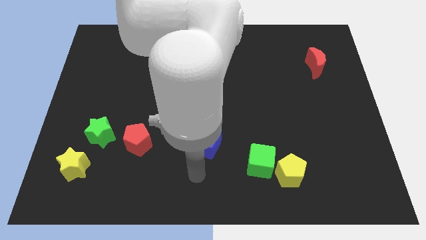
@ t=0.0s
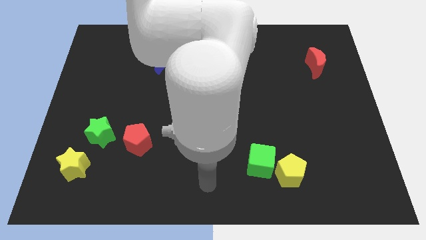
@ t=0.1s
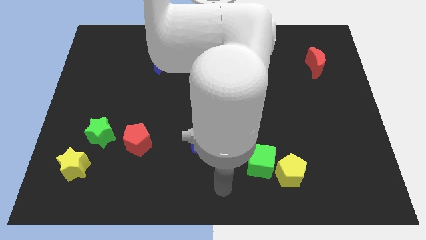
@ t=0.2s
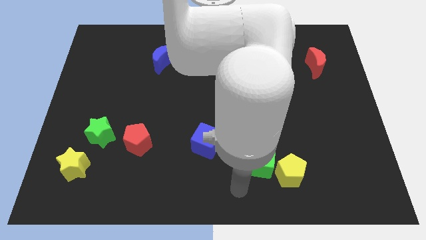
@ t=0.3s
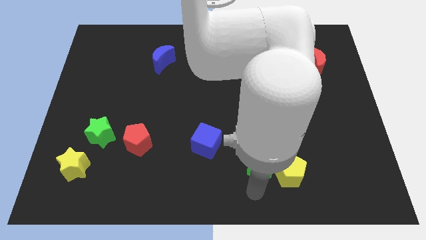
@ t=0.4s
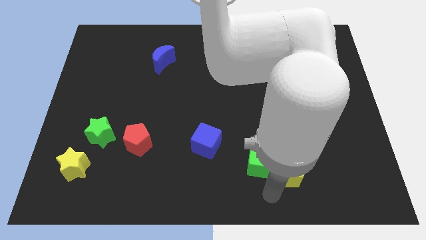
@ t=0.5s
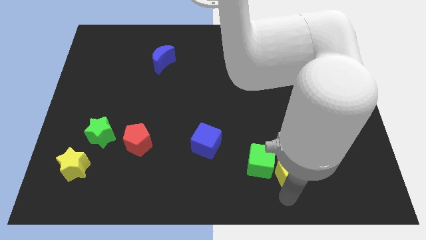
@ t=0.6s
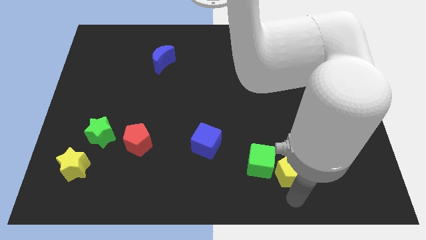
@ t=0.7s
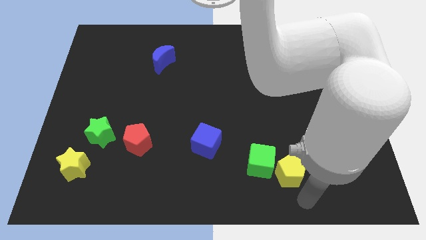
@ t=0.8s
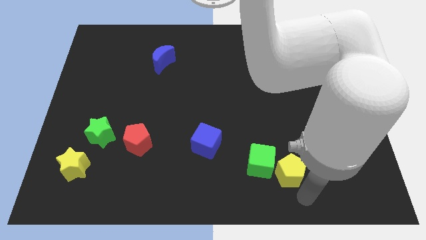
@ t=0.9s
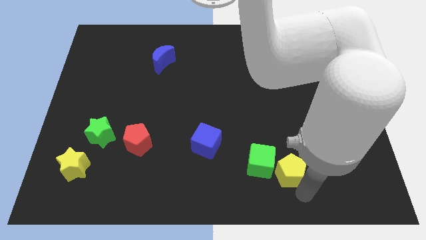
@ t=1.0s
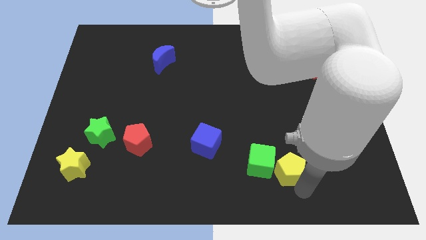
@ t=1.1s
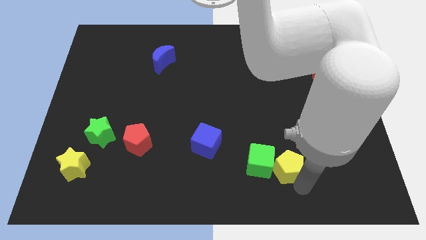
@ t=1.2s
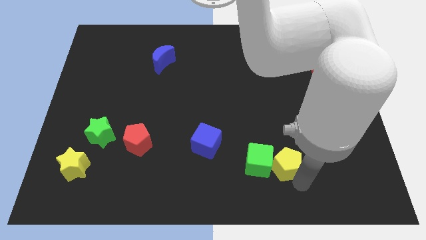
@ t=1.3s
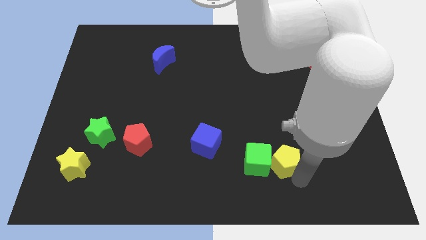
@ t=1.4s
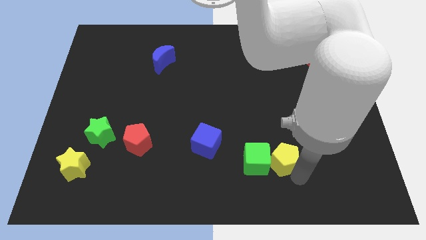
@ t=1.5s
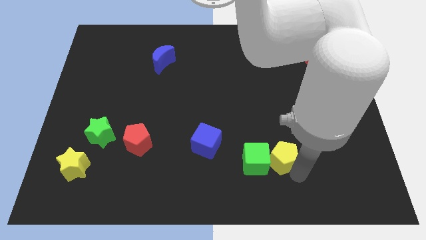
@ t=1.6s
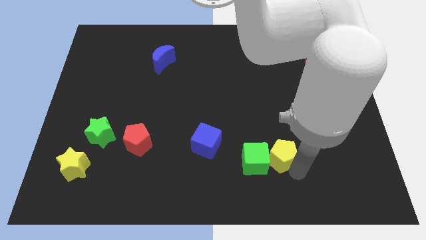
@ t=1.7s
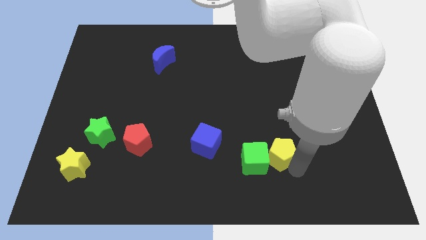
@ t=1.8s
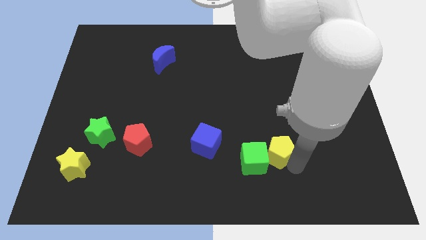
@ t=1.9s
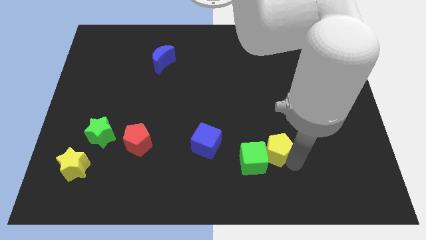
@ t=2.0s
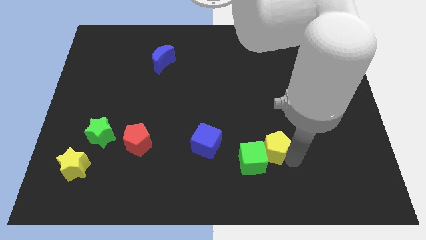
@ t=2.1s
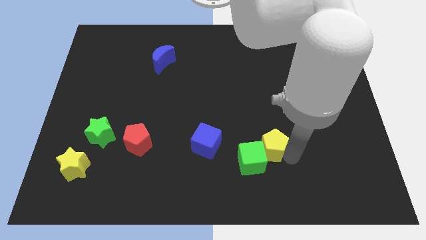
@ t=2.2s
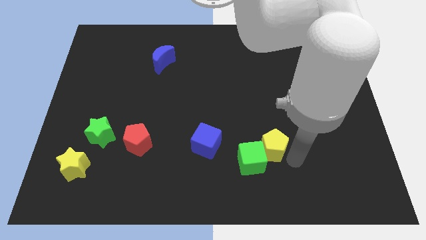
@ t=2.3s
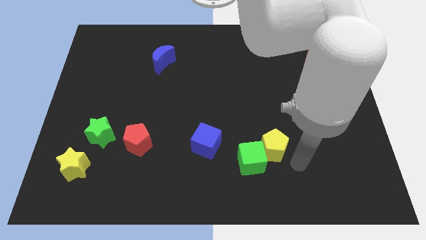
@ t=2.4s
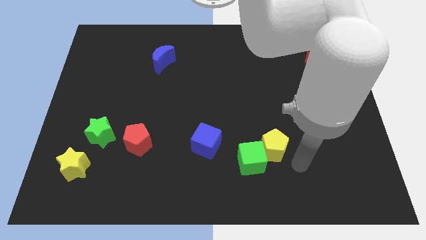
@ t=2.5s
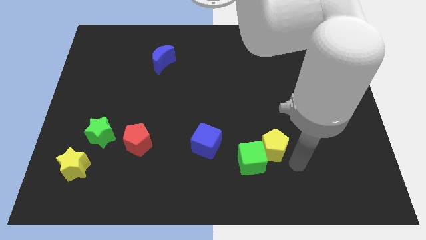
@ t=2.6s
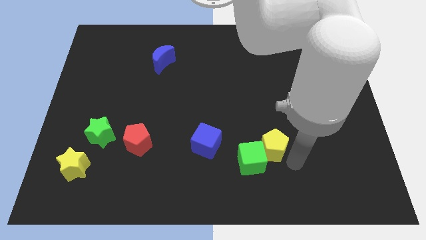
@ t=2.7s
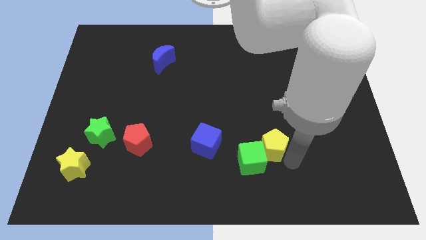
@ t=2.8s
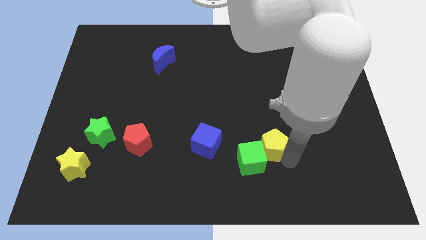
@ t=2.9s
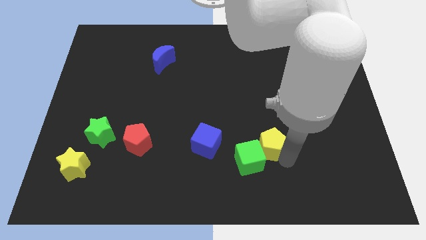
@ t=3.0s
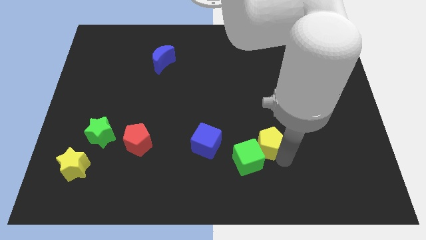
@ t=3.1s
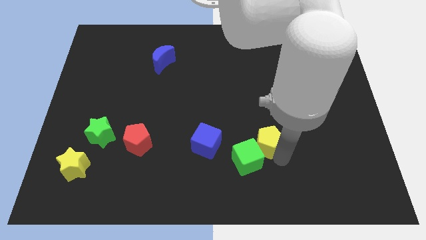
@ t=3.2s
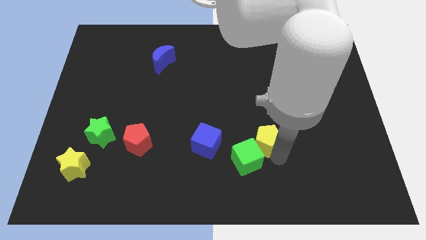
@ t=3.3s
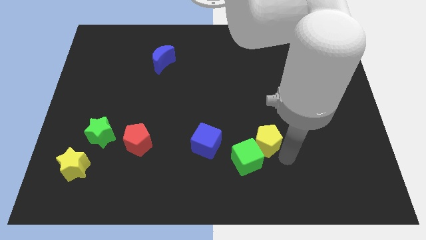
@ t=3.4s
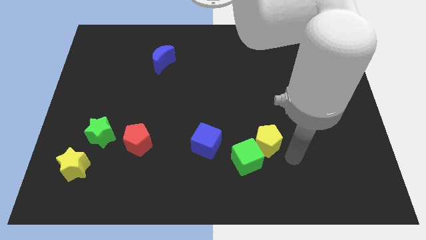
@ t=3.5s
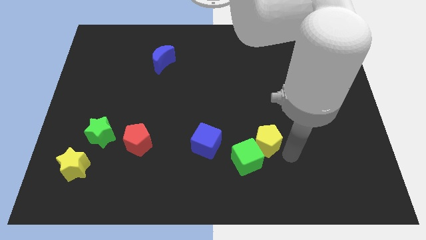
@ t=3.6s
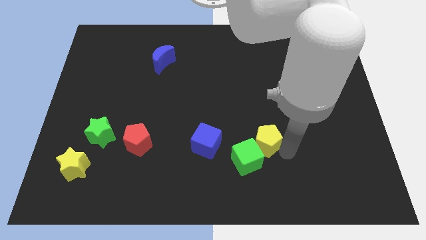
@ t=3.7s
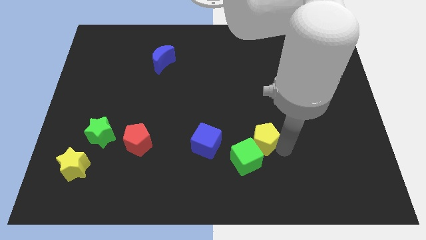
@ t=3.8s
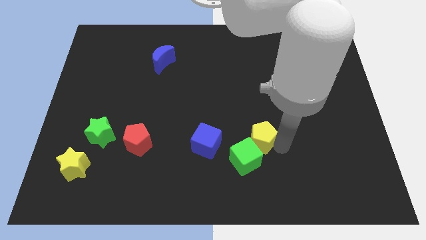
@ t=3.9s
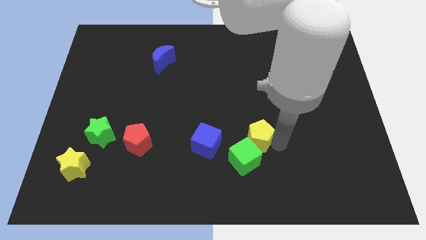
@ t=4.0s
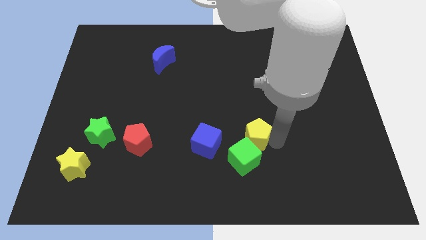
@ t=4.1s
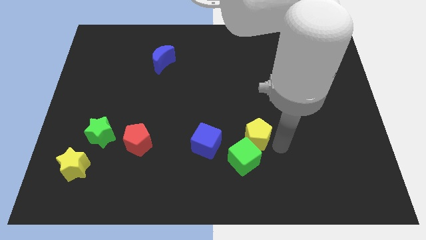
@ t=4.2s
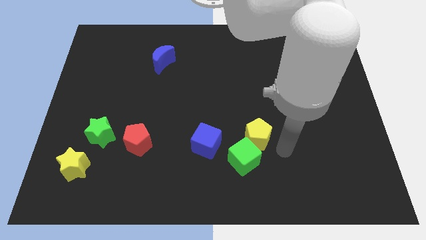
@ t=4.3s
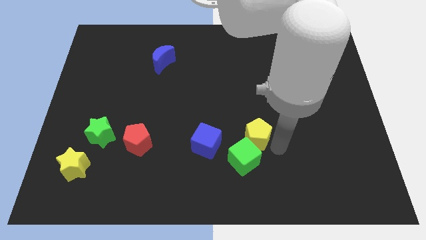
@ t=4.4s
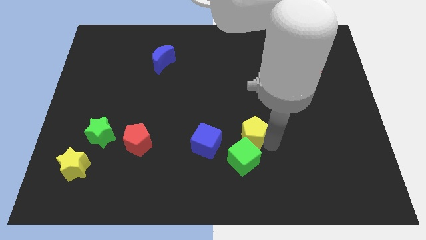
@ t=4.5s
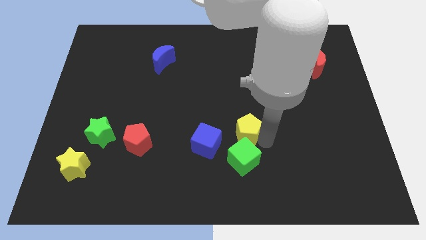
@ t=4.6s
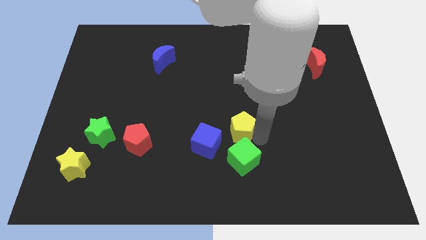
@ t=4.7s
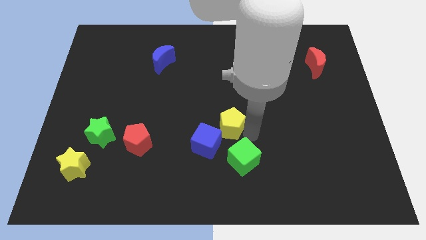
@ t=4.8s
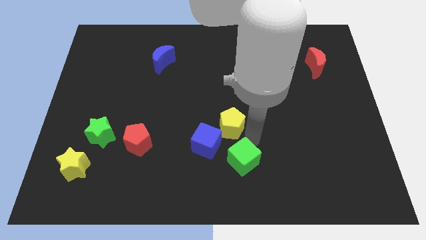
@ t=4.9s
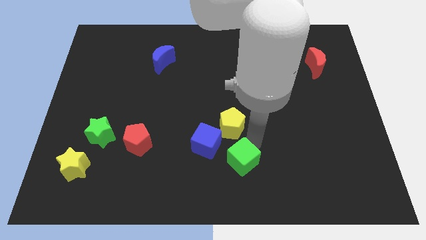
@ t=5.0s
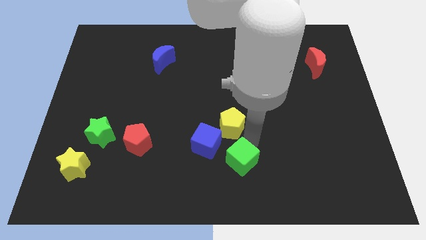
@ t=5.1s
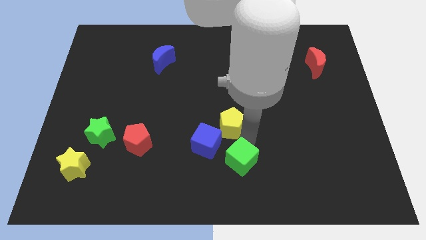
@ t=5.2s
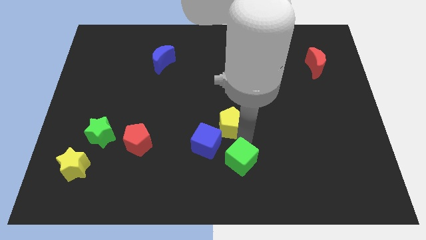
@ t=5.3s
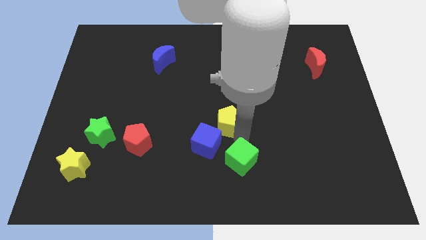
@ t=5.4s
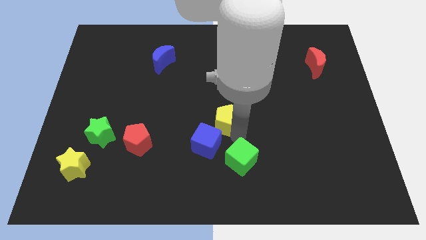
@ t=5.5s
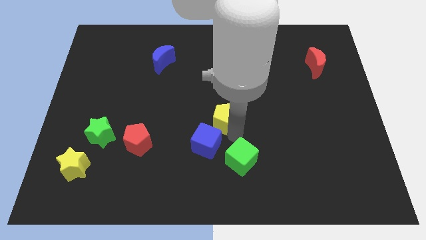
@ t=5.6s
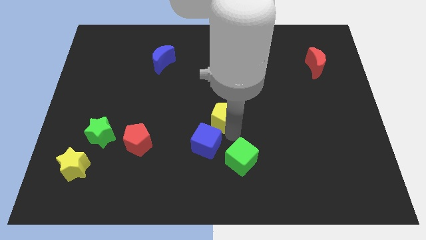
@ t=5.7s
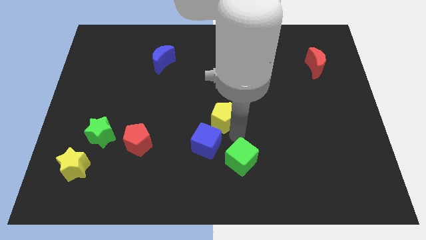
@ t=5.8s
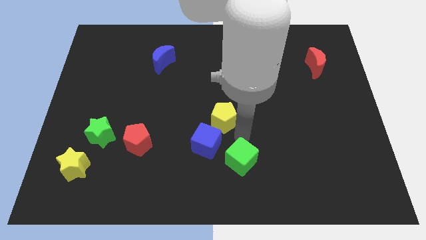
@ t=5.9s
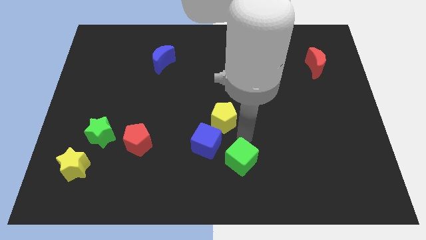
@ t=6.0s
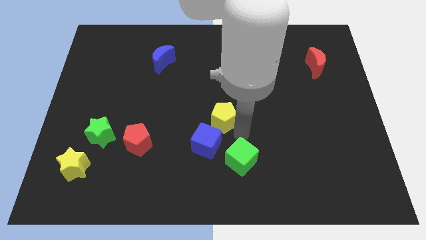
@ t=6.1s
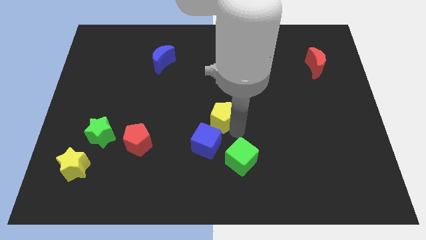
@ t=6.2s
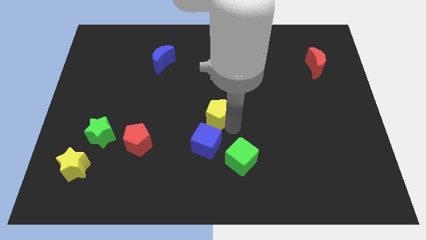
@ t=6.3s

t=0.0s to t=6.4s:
push the yellow pentagon upwards and then to the left

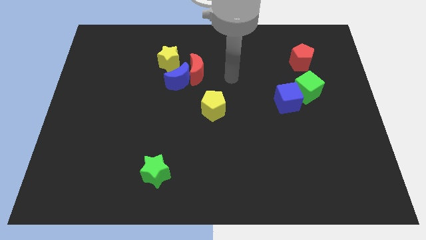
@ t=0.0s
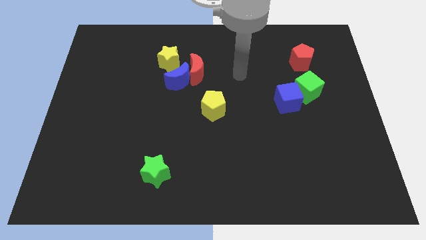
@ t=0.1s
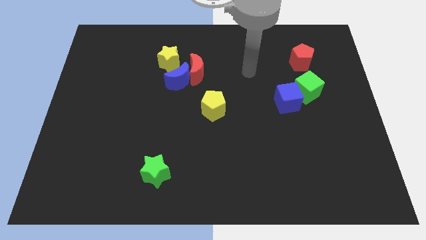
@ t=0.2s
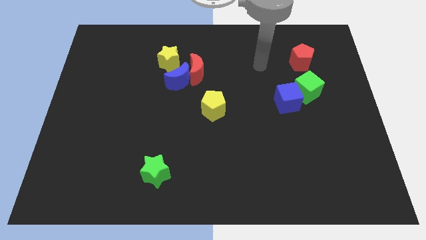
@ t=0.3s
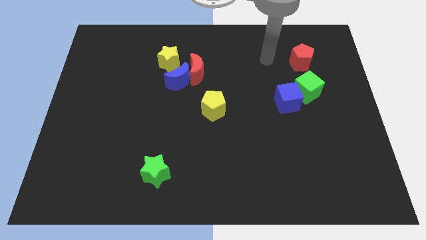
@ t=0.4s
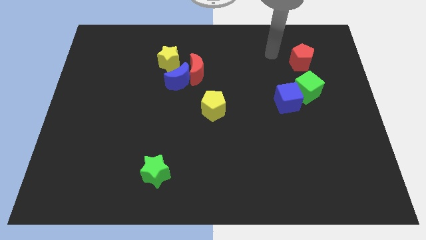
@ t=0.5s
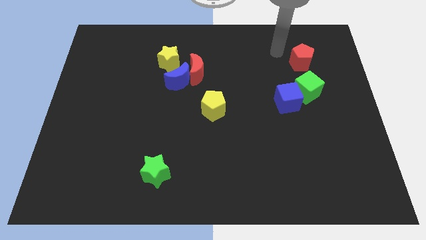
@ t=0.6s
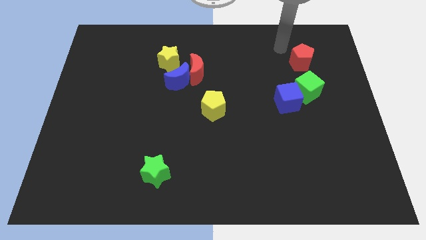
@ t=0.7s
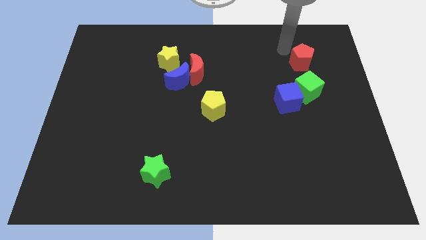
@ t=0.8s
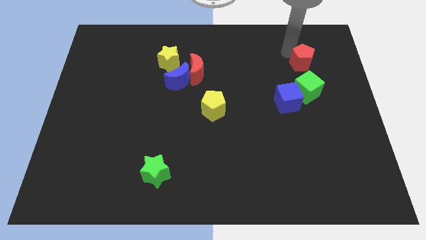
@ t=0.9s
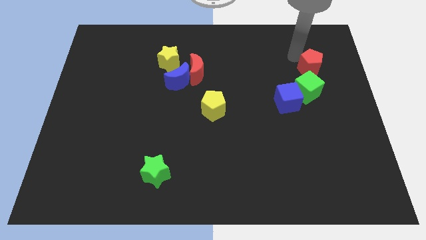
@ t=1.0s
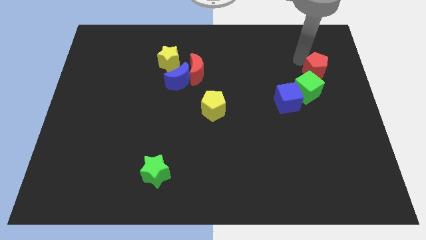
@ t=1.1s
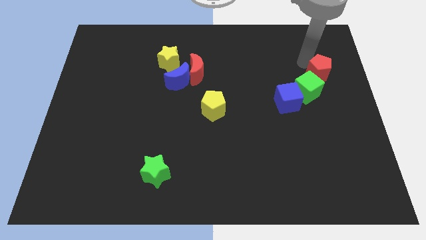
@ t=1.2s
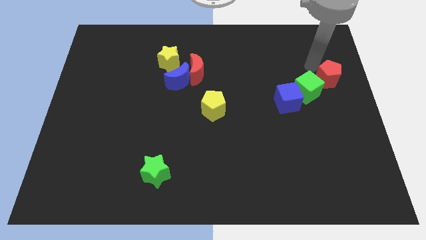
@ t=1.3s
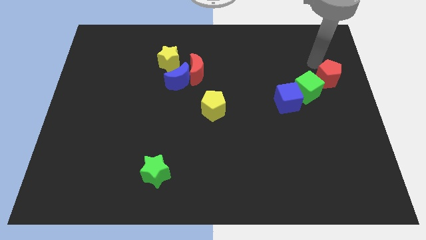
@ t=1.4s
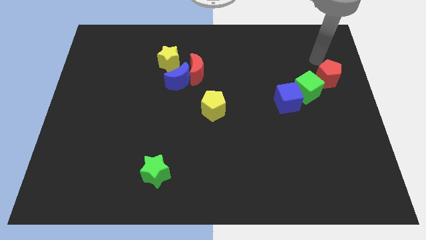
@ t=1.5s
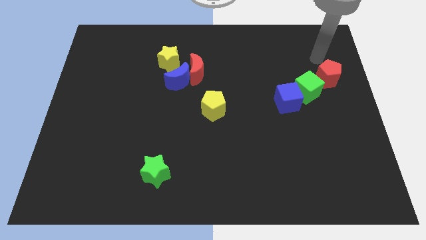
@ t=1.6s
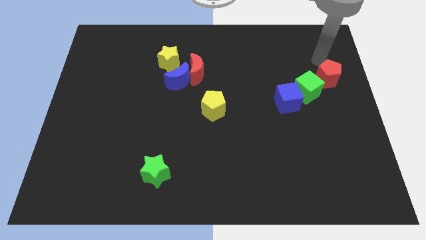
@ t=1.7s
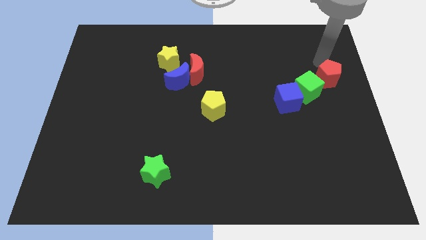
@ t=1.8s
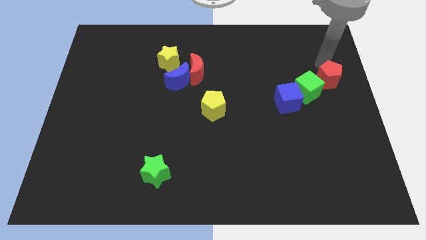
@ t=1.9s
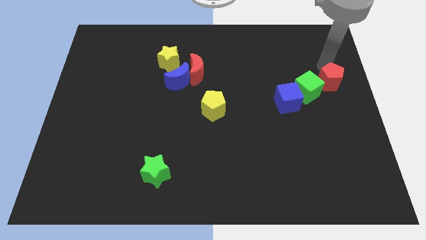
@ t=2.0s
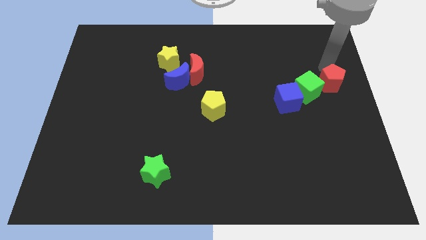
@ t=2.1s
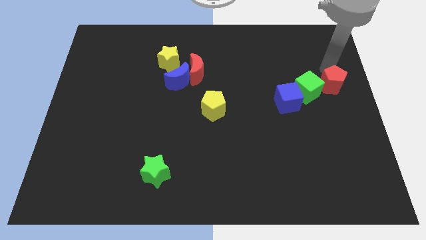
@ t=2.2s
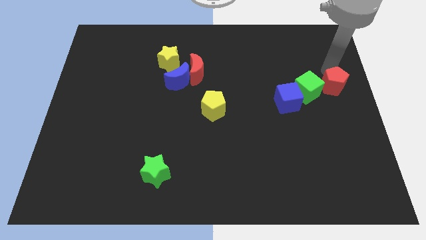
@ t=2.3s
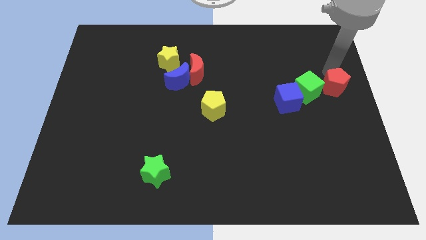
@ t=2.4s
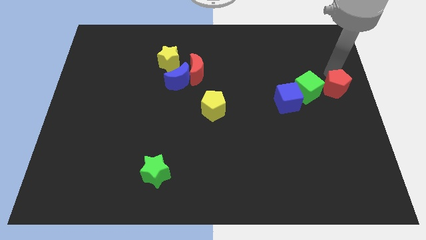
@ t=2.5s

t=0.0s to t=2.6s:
slightly push the red pentagon downwards
